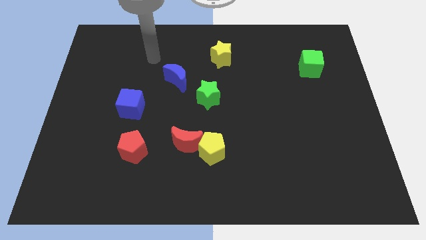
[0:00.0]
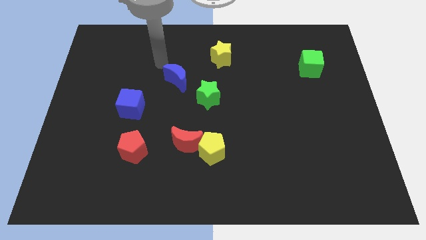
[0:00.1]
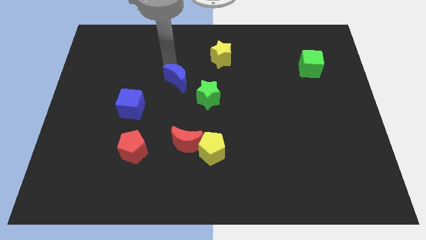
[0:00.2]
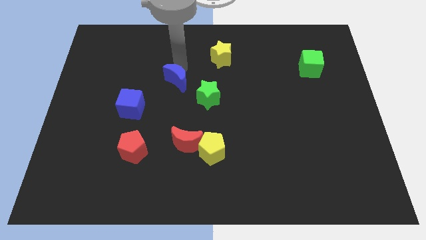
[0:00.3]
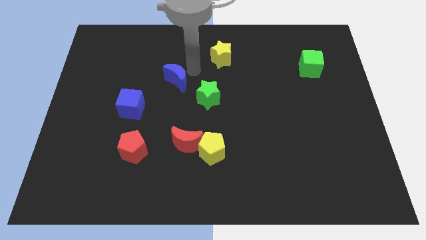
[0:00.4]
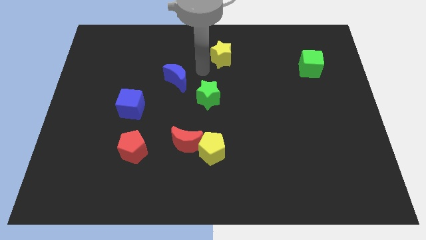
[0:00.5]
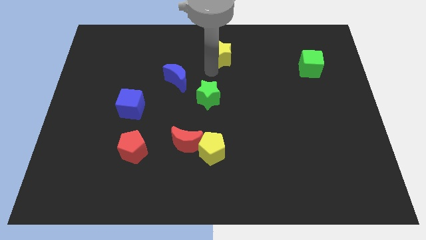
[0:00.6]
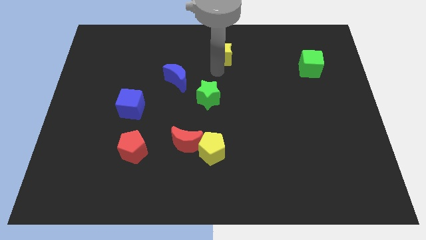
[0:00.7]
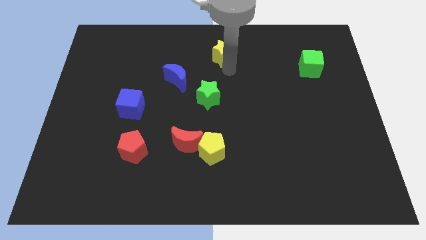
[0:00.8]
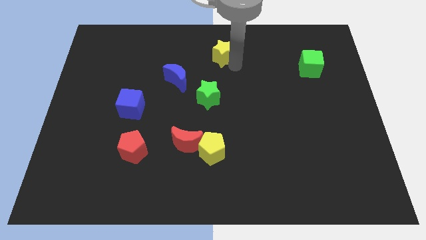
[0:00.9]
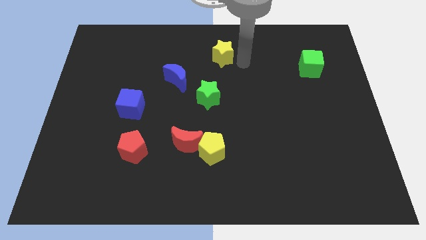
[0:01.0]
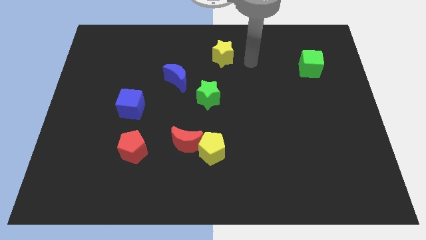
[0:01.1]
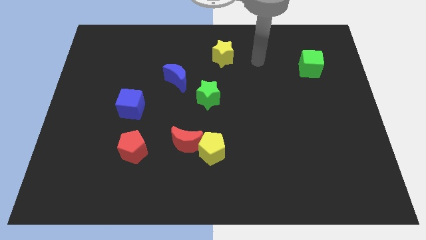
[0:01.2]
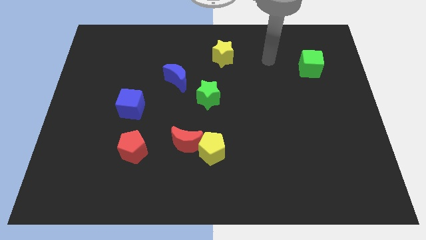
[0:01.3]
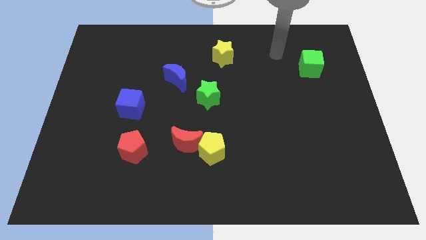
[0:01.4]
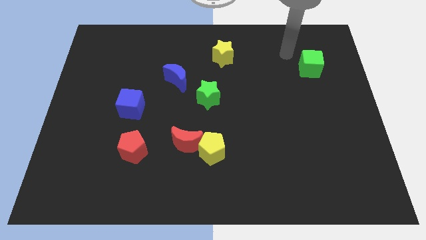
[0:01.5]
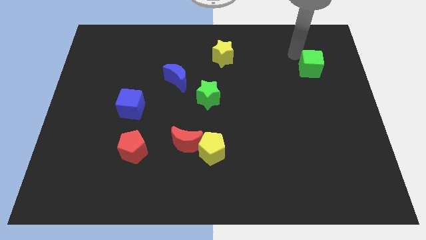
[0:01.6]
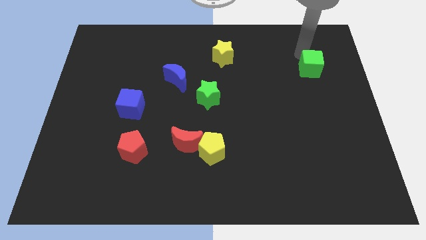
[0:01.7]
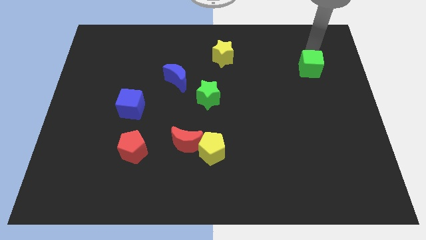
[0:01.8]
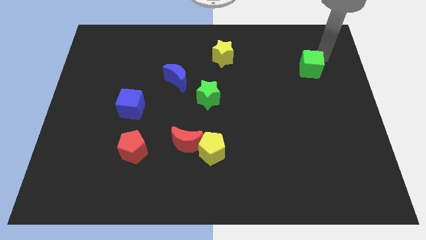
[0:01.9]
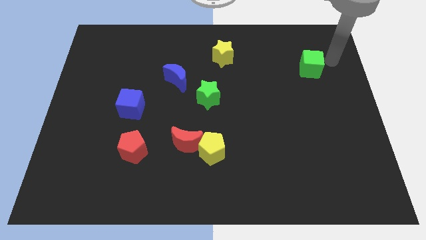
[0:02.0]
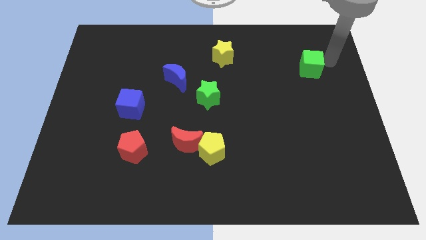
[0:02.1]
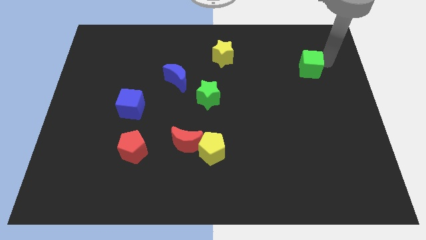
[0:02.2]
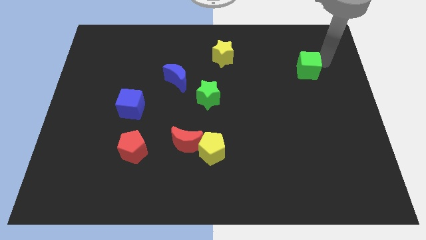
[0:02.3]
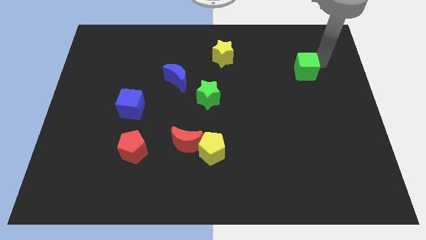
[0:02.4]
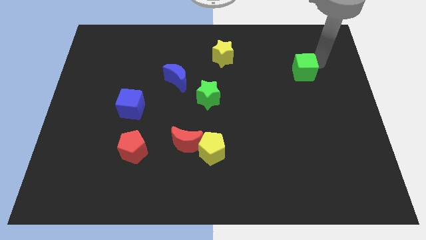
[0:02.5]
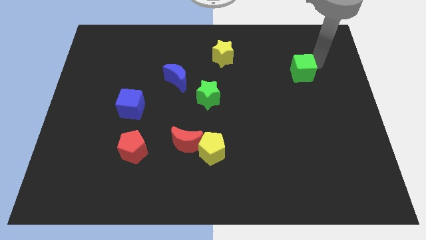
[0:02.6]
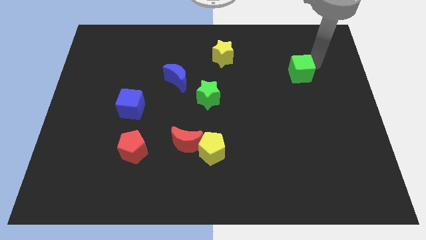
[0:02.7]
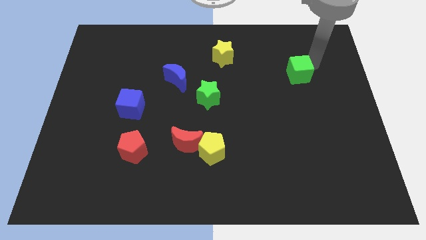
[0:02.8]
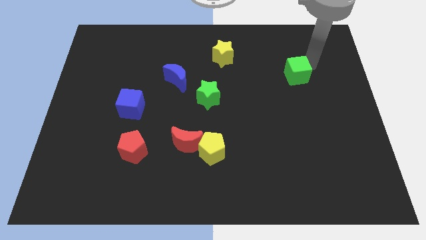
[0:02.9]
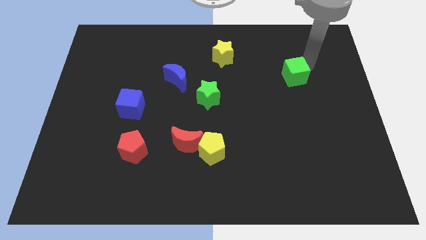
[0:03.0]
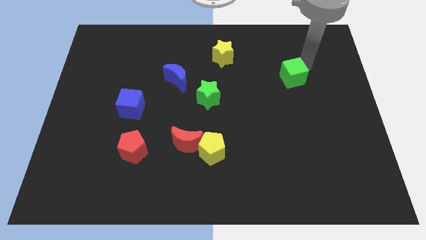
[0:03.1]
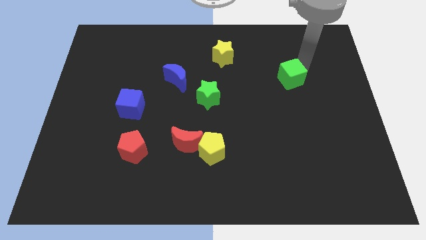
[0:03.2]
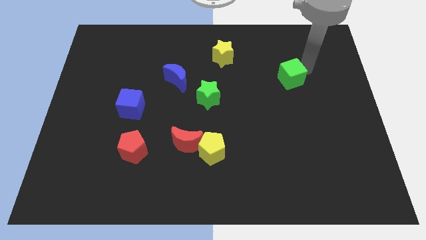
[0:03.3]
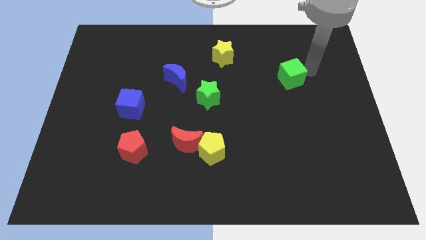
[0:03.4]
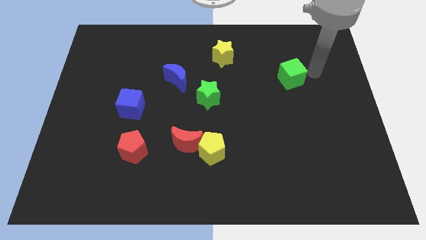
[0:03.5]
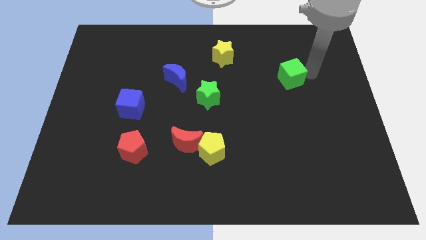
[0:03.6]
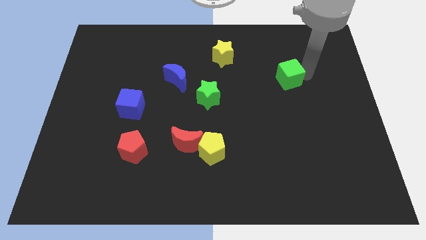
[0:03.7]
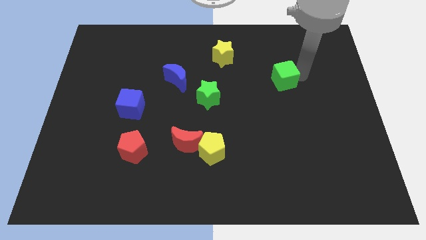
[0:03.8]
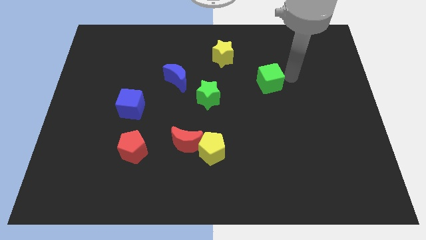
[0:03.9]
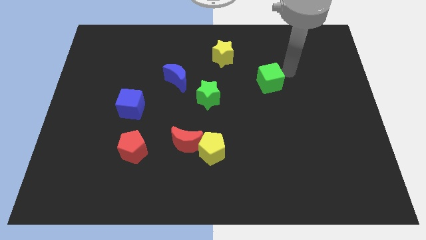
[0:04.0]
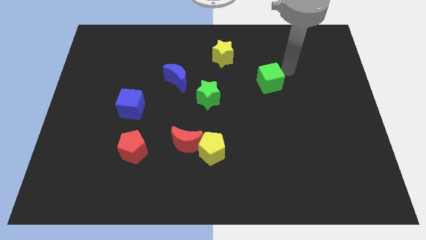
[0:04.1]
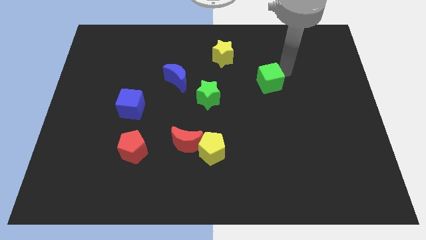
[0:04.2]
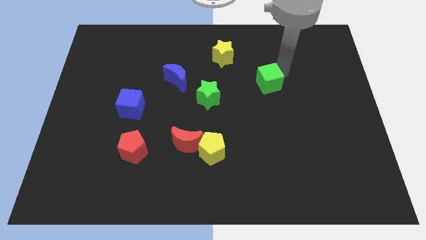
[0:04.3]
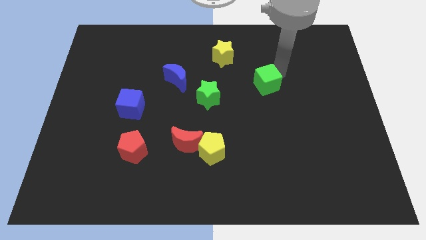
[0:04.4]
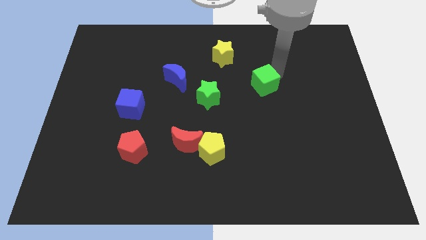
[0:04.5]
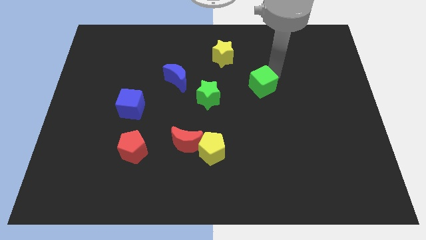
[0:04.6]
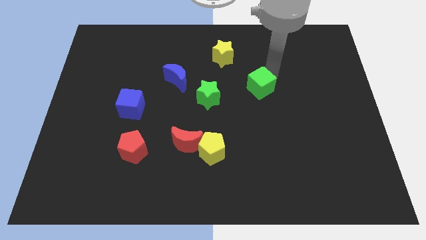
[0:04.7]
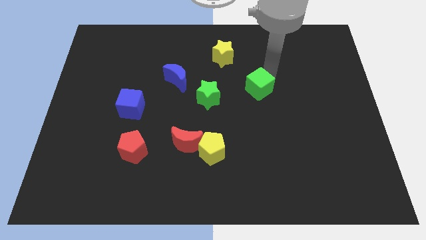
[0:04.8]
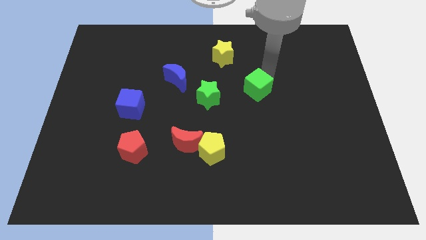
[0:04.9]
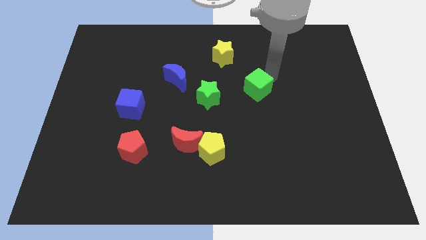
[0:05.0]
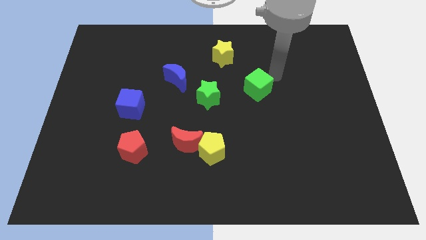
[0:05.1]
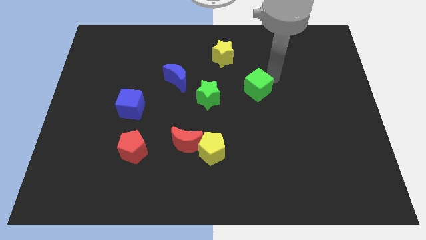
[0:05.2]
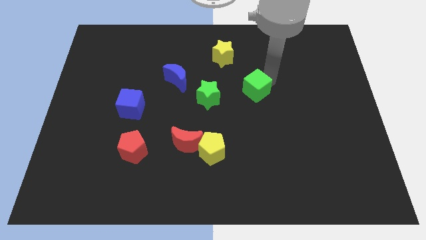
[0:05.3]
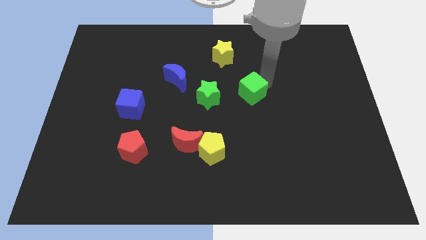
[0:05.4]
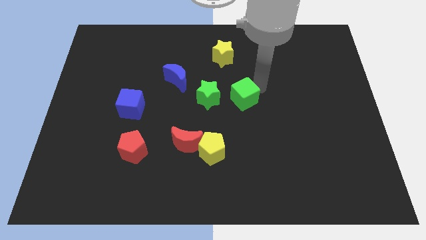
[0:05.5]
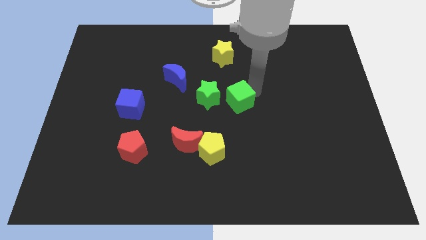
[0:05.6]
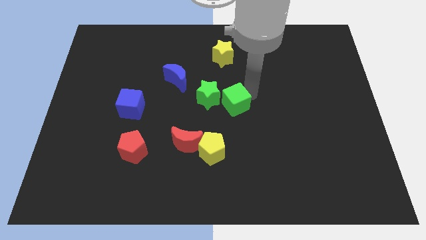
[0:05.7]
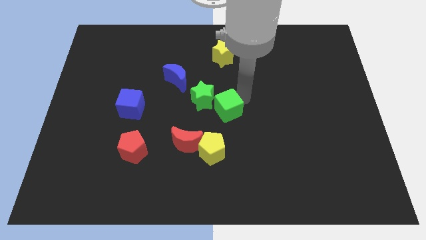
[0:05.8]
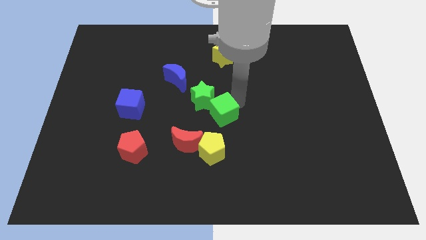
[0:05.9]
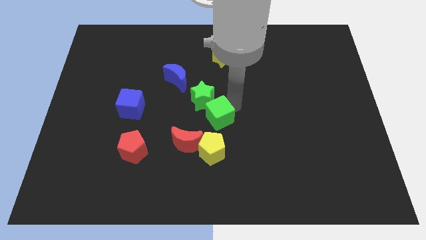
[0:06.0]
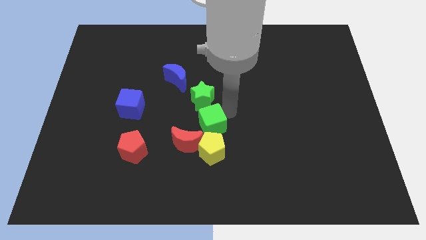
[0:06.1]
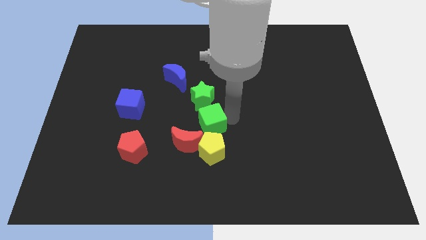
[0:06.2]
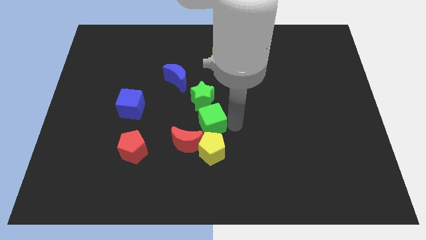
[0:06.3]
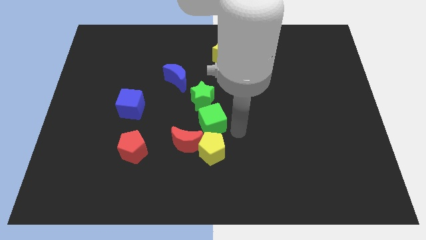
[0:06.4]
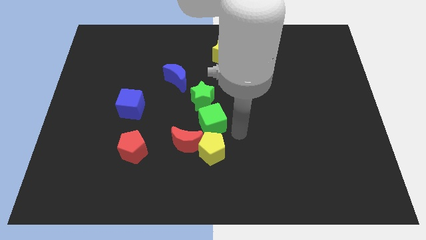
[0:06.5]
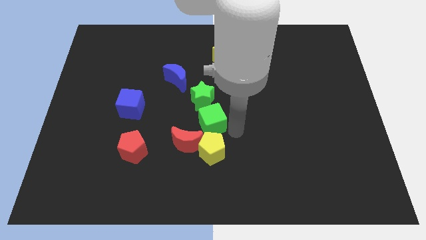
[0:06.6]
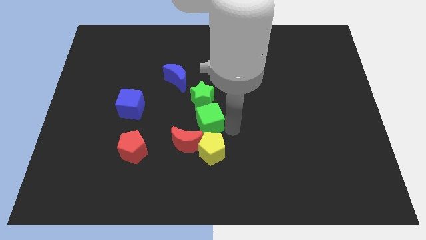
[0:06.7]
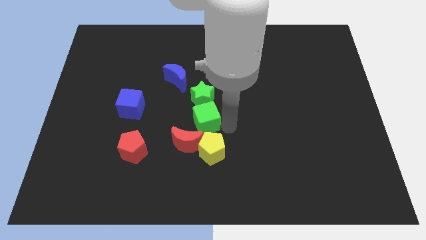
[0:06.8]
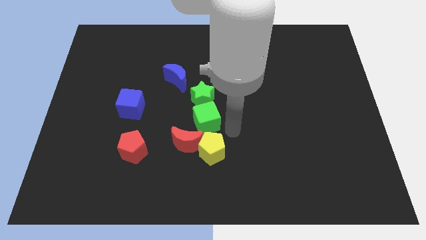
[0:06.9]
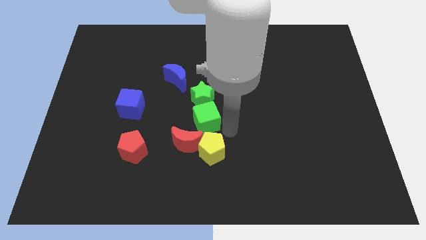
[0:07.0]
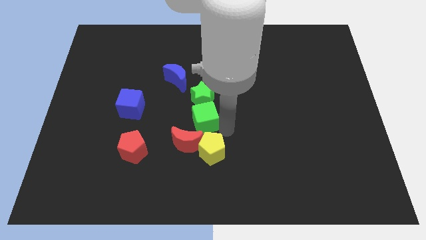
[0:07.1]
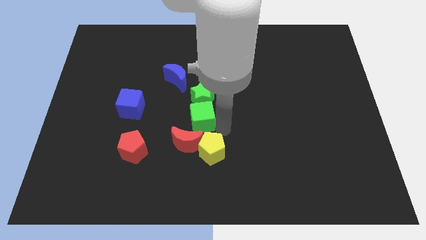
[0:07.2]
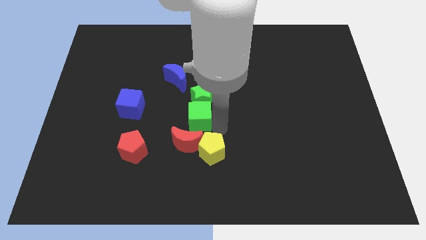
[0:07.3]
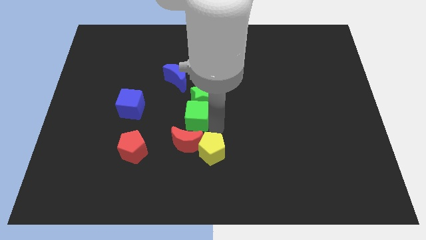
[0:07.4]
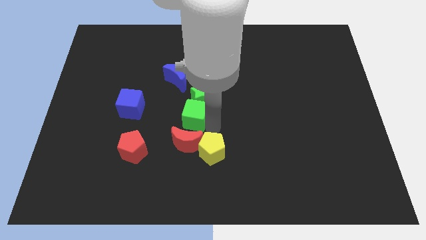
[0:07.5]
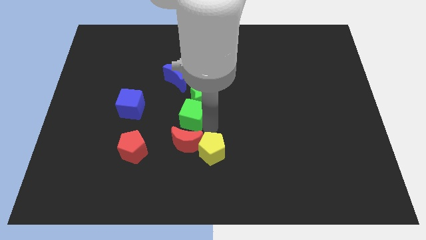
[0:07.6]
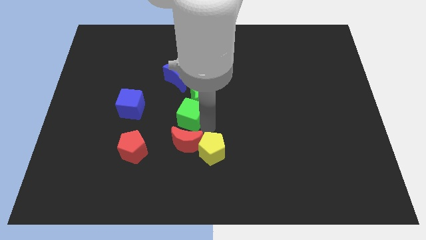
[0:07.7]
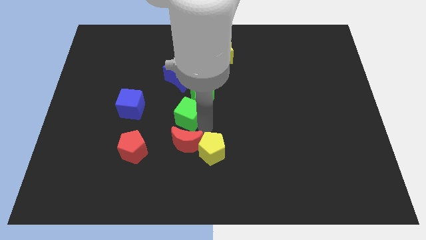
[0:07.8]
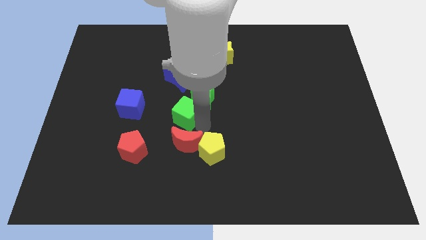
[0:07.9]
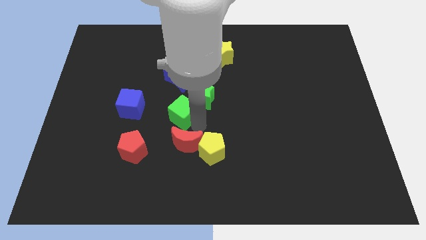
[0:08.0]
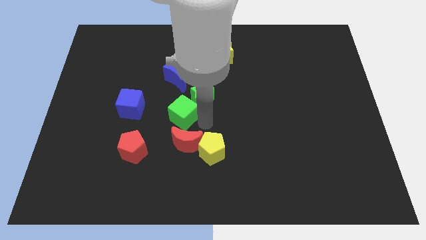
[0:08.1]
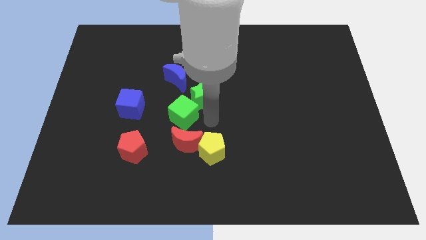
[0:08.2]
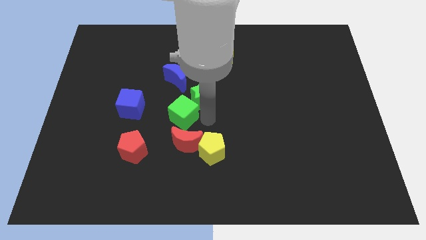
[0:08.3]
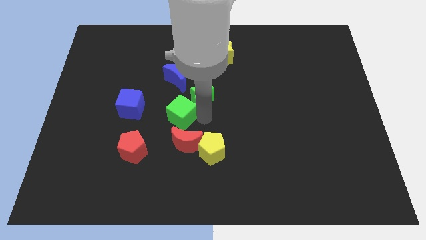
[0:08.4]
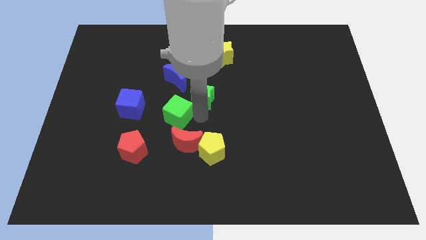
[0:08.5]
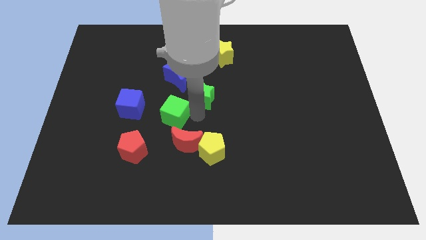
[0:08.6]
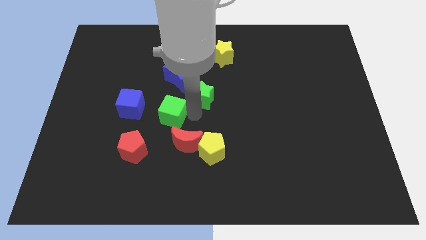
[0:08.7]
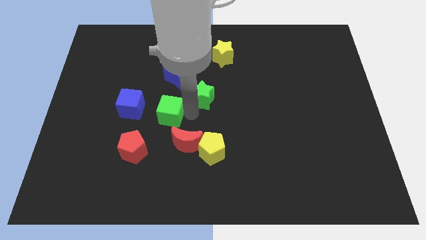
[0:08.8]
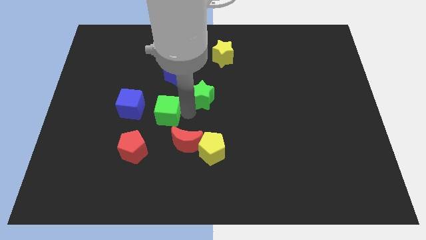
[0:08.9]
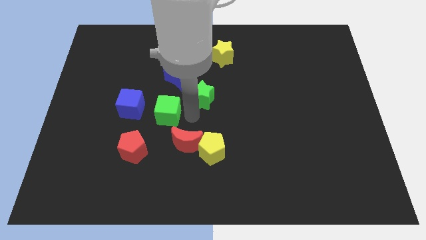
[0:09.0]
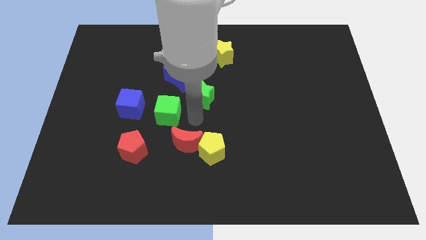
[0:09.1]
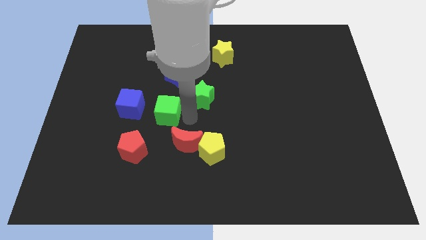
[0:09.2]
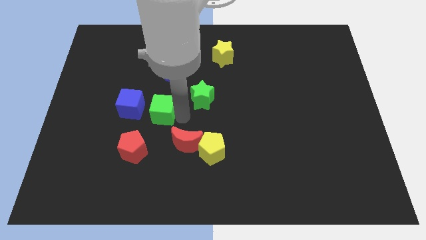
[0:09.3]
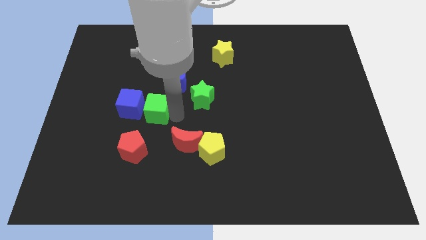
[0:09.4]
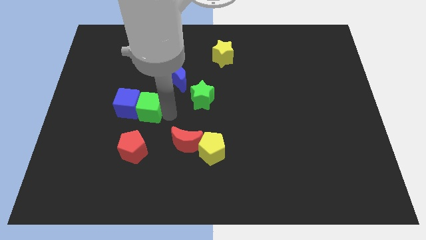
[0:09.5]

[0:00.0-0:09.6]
put the green cube close to the blue cube
